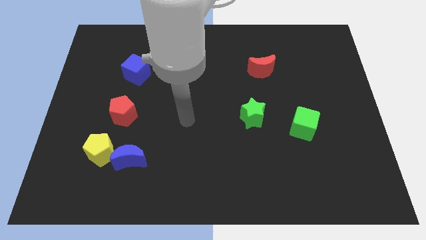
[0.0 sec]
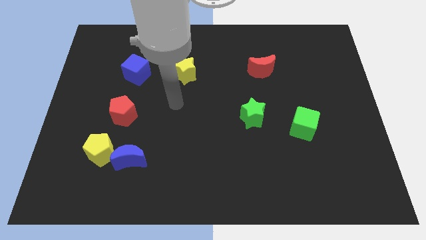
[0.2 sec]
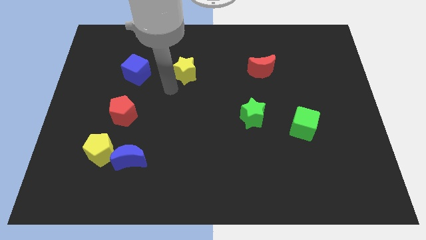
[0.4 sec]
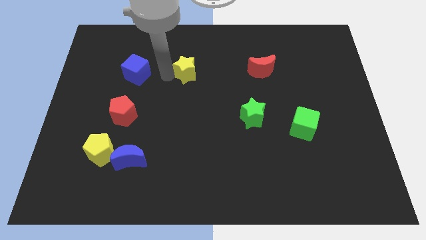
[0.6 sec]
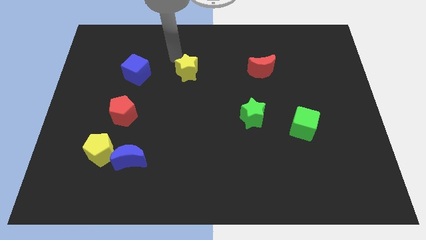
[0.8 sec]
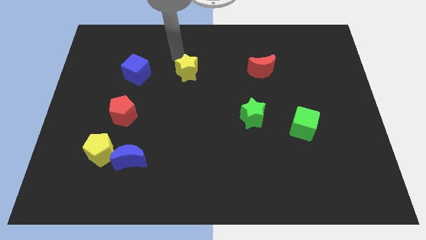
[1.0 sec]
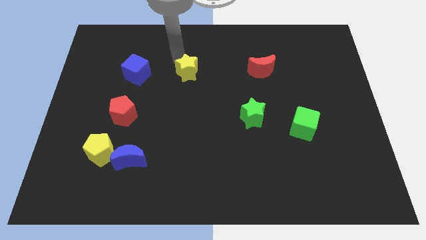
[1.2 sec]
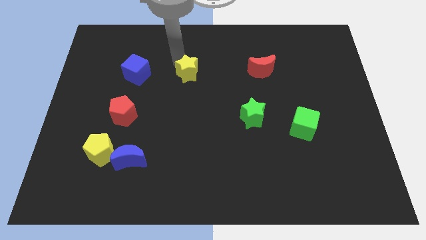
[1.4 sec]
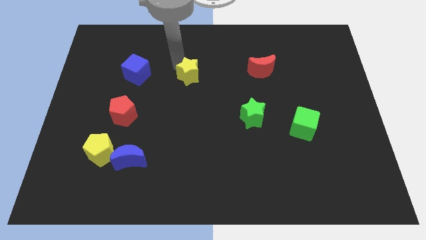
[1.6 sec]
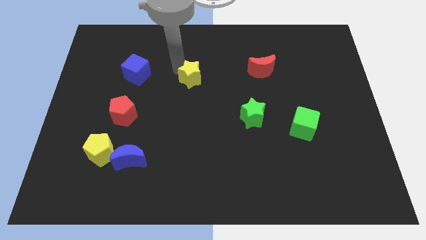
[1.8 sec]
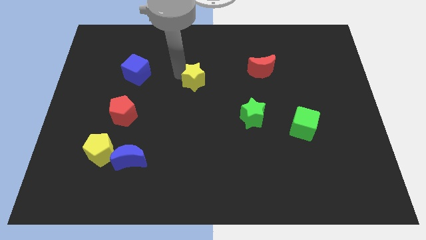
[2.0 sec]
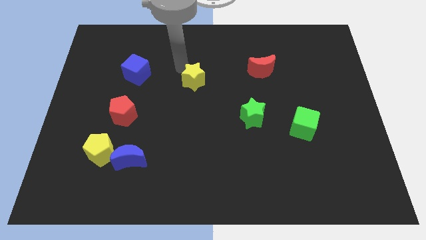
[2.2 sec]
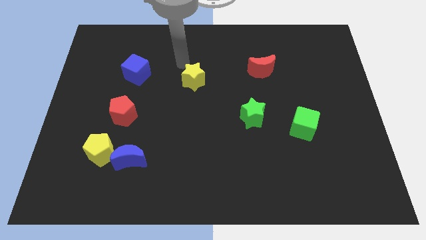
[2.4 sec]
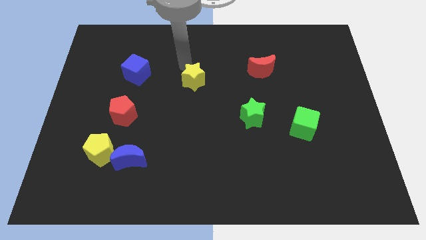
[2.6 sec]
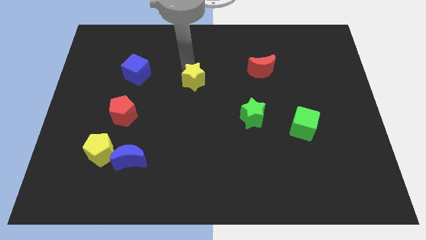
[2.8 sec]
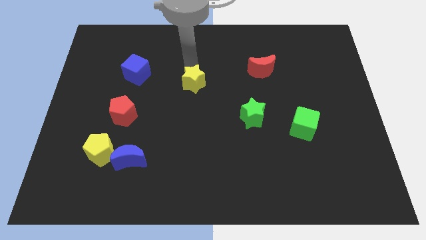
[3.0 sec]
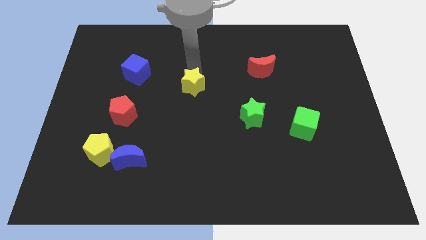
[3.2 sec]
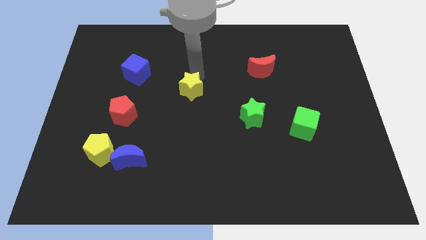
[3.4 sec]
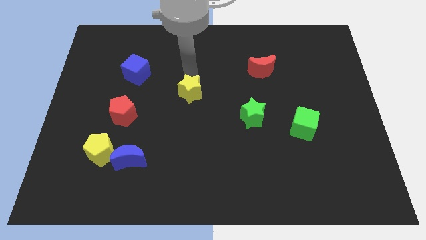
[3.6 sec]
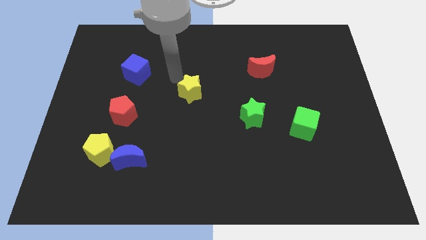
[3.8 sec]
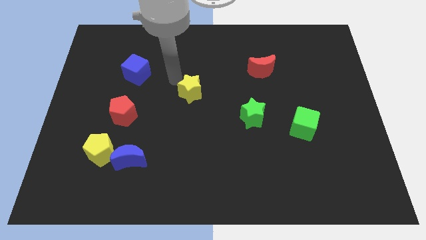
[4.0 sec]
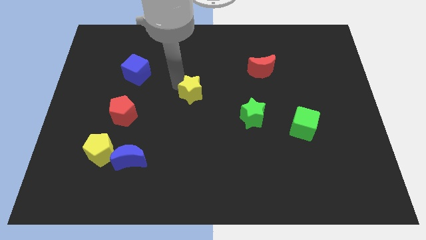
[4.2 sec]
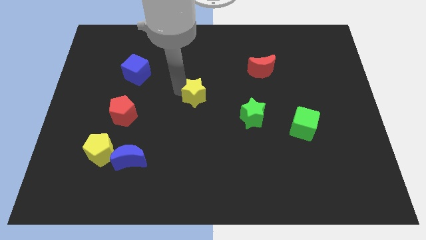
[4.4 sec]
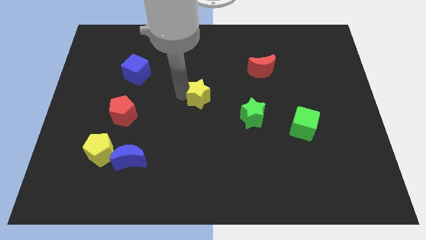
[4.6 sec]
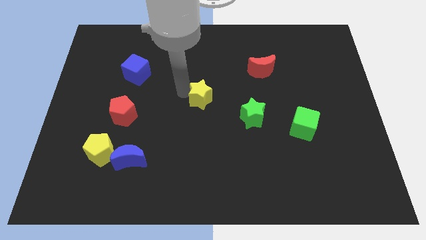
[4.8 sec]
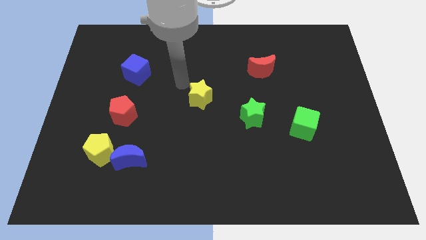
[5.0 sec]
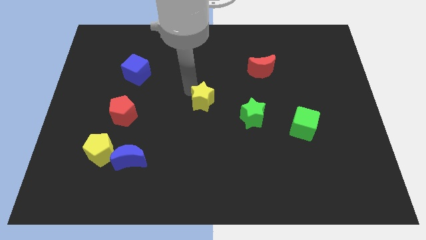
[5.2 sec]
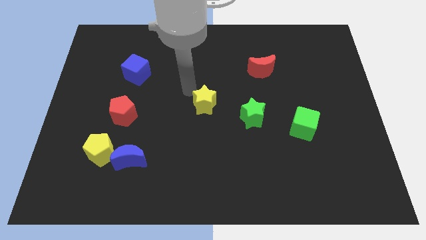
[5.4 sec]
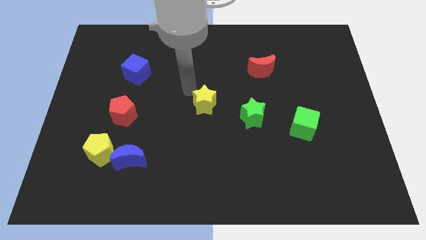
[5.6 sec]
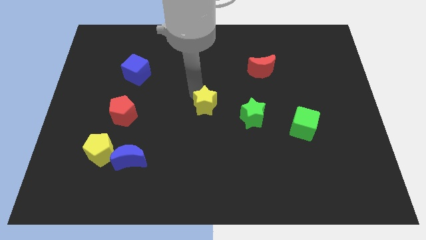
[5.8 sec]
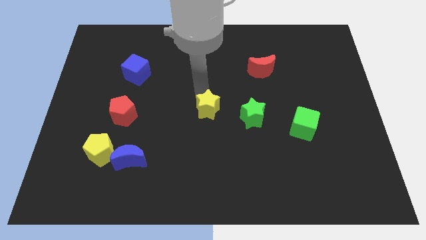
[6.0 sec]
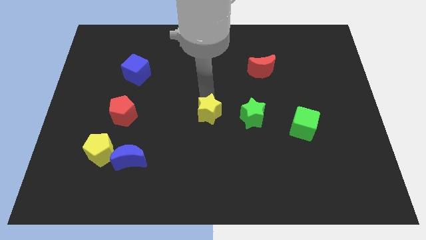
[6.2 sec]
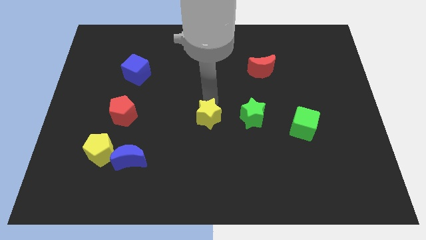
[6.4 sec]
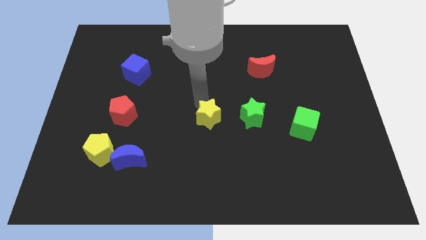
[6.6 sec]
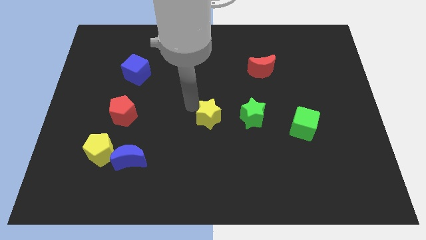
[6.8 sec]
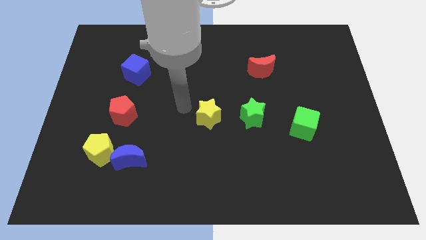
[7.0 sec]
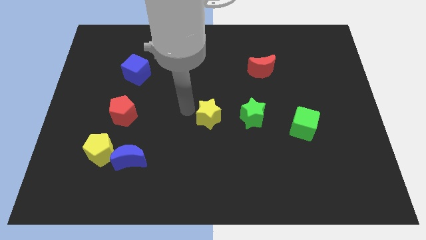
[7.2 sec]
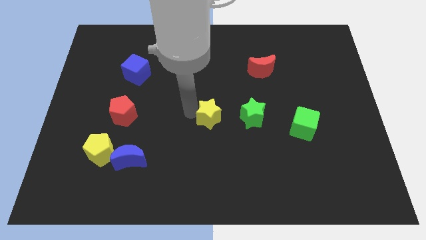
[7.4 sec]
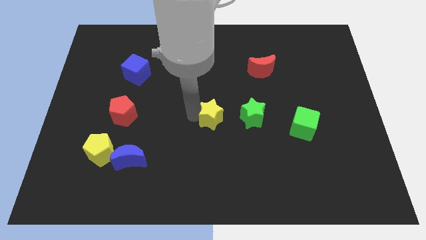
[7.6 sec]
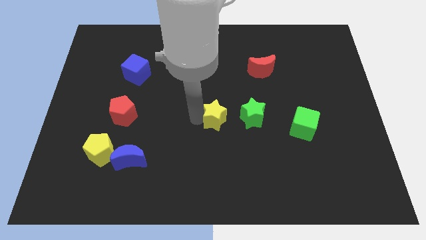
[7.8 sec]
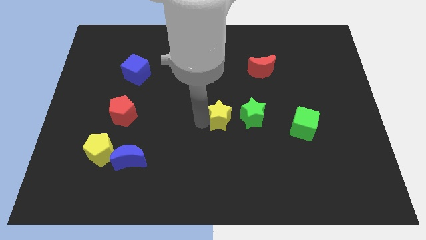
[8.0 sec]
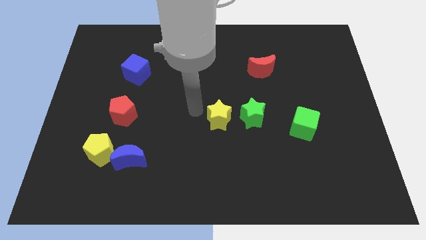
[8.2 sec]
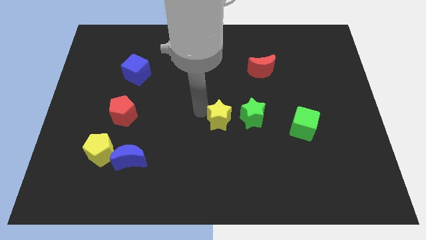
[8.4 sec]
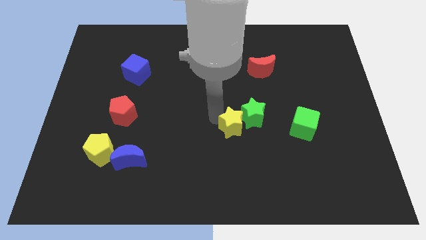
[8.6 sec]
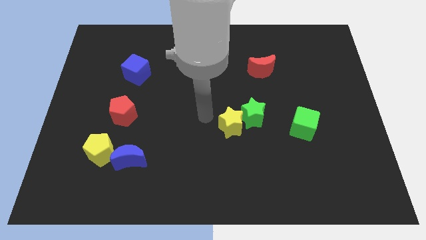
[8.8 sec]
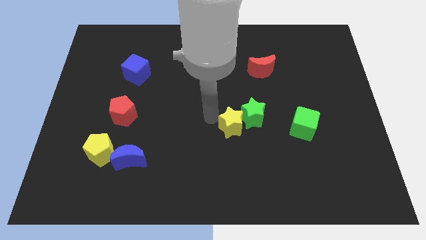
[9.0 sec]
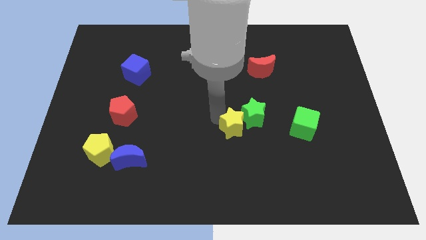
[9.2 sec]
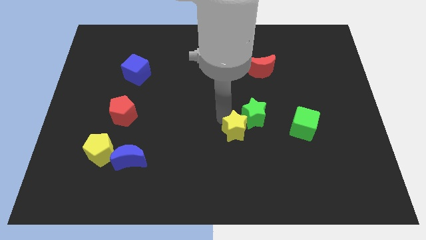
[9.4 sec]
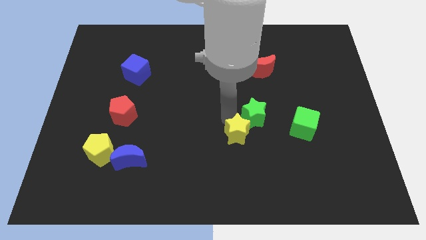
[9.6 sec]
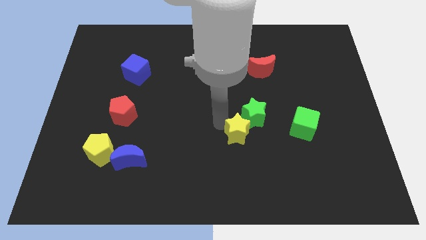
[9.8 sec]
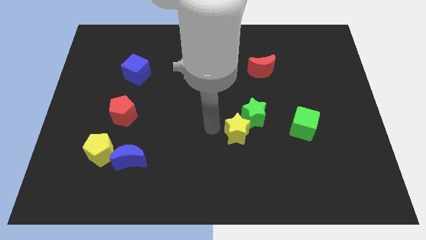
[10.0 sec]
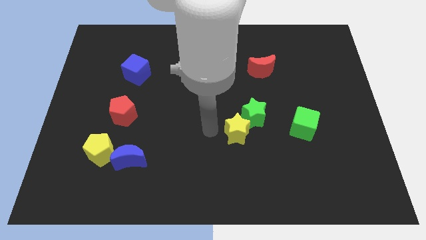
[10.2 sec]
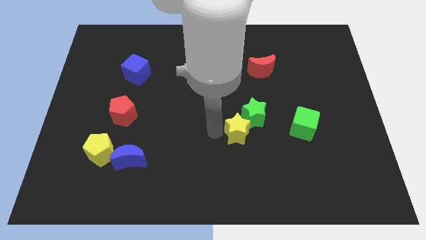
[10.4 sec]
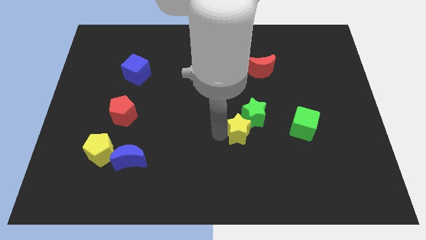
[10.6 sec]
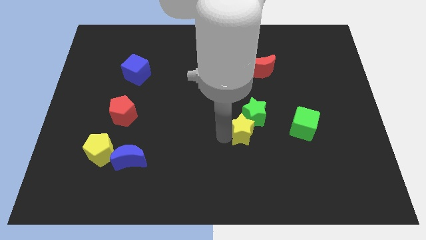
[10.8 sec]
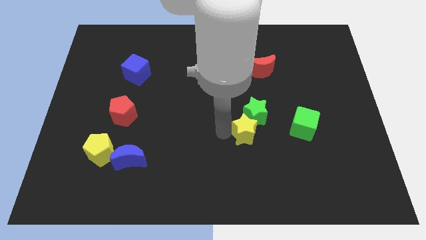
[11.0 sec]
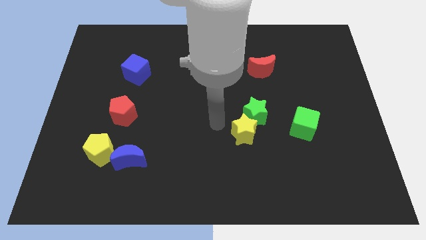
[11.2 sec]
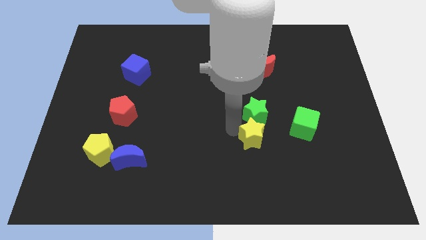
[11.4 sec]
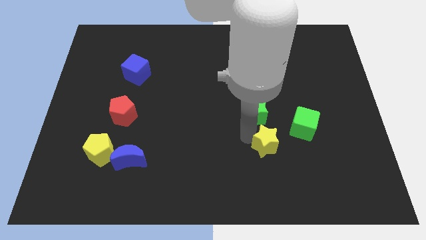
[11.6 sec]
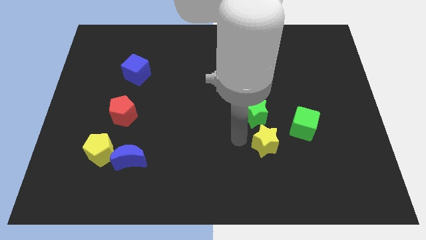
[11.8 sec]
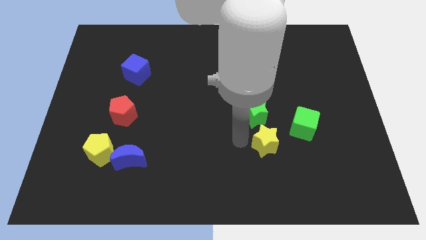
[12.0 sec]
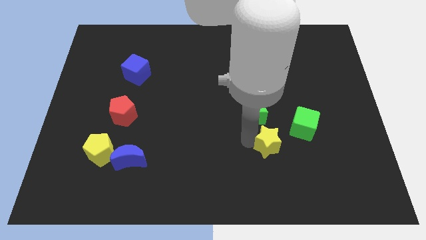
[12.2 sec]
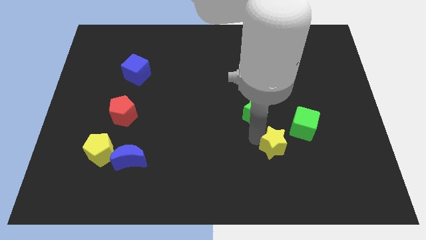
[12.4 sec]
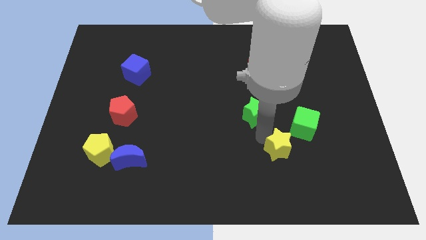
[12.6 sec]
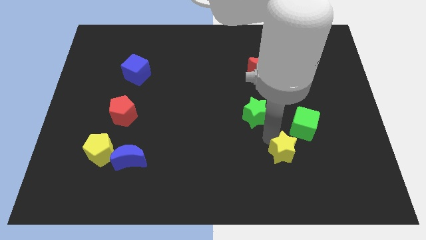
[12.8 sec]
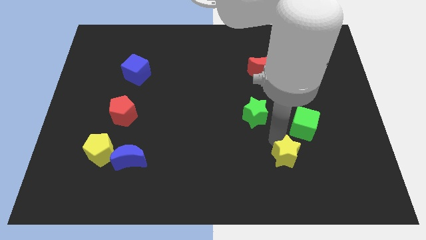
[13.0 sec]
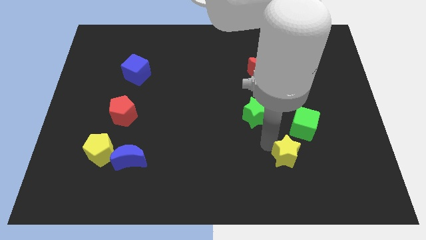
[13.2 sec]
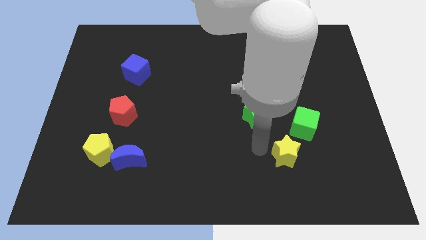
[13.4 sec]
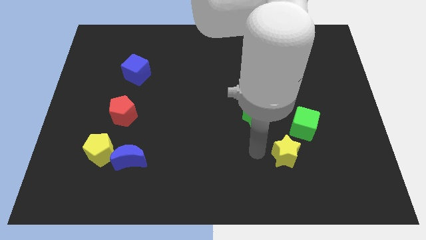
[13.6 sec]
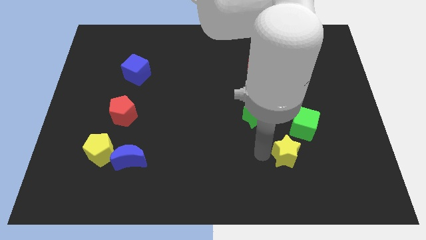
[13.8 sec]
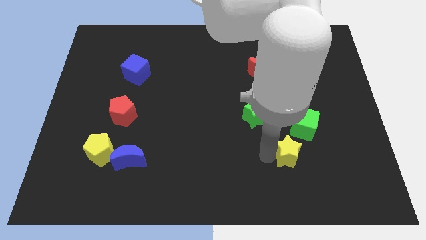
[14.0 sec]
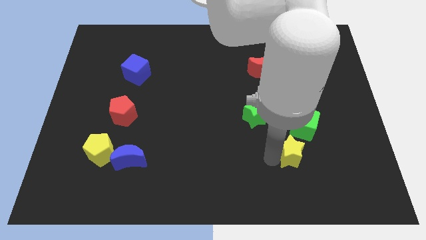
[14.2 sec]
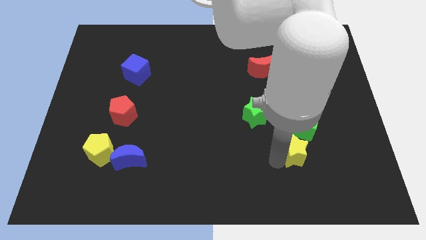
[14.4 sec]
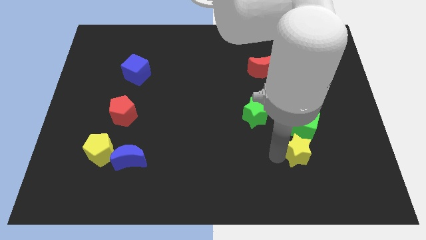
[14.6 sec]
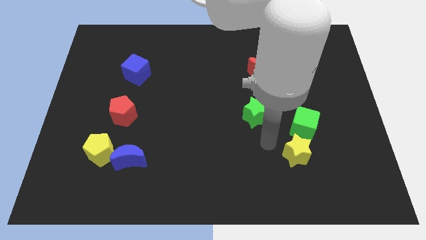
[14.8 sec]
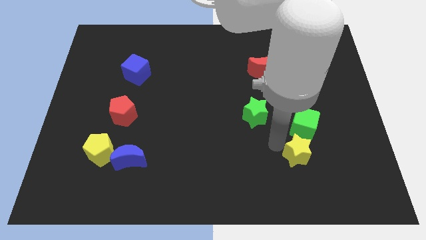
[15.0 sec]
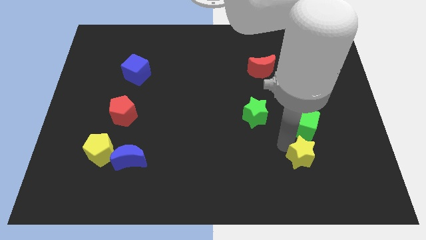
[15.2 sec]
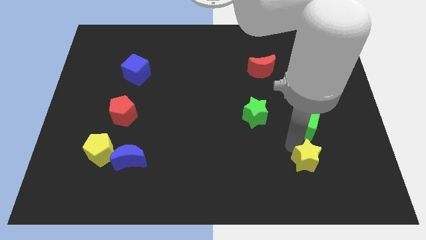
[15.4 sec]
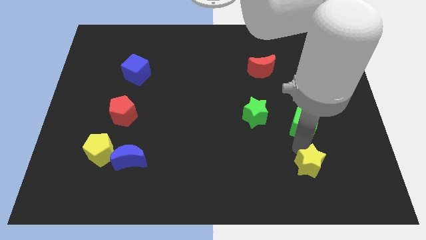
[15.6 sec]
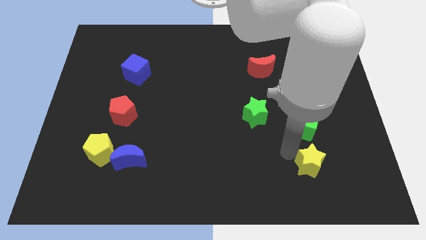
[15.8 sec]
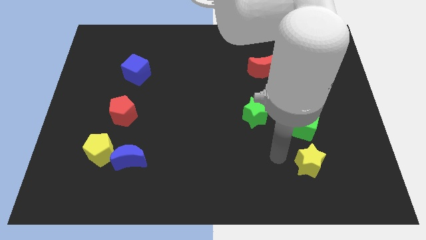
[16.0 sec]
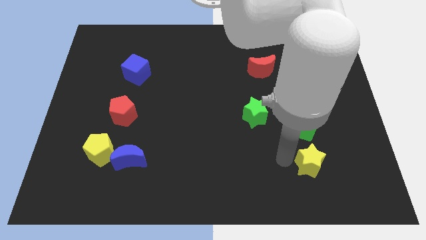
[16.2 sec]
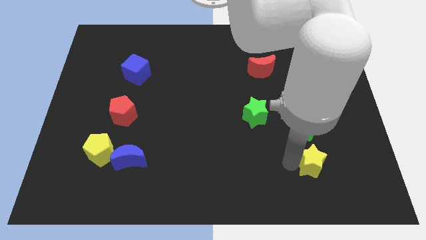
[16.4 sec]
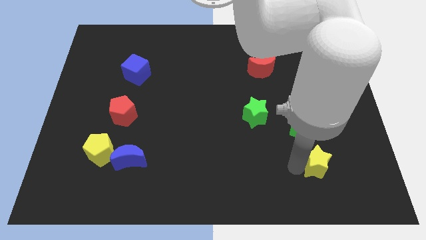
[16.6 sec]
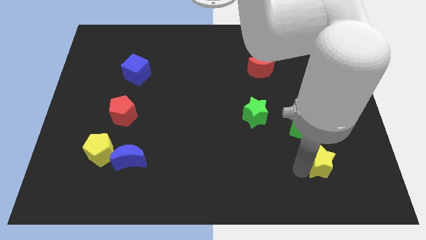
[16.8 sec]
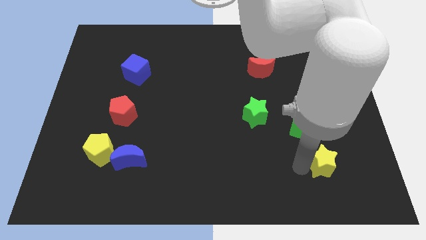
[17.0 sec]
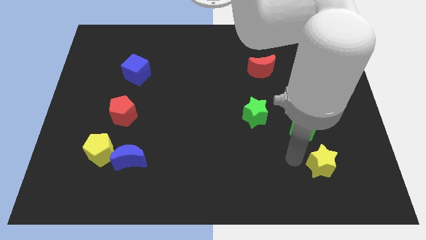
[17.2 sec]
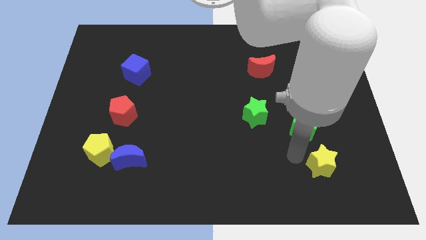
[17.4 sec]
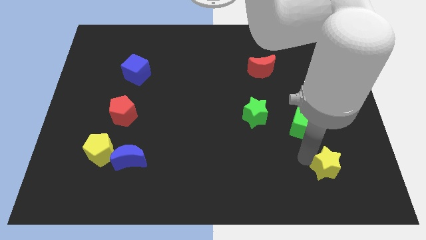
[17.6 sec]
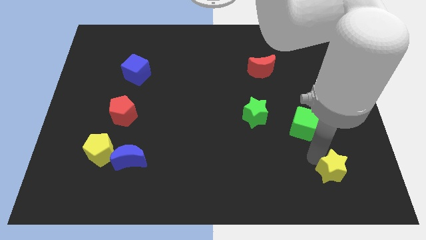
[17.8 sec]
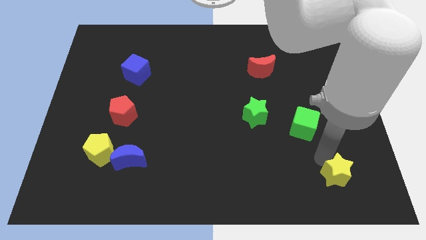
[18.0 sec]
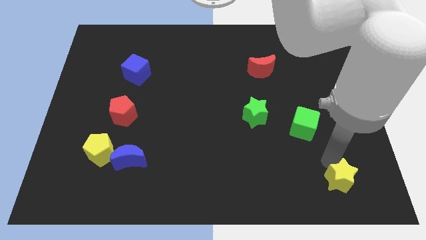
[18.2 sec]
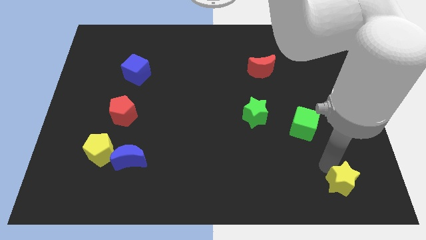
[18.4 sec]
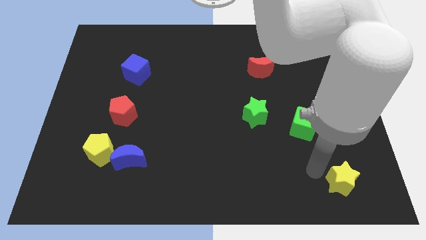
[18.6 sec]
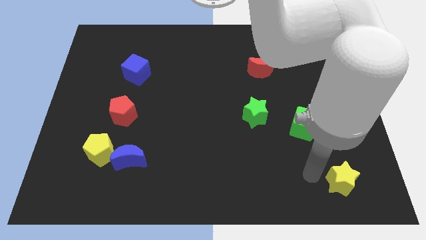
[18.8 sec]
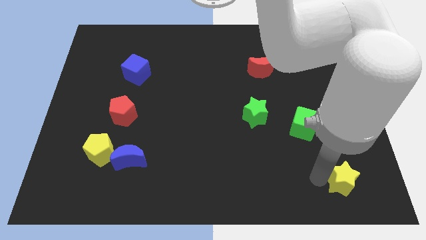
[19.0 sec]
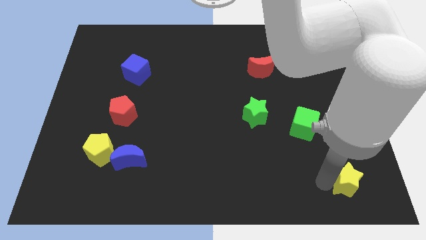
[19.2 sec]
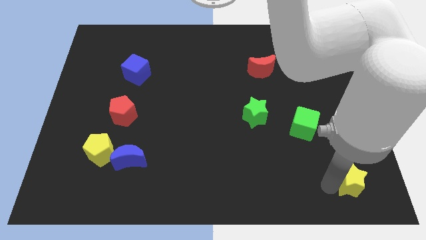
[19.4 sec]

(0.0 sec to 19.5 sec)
slide the yellow star to the lower right corner
